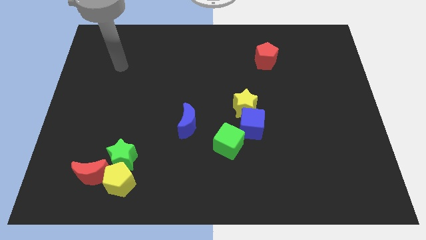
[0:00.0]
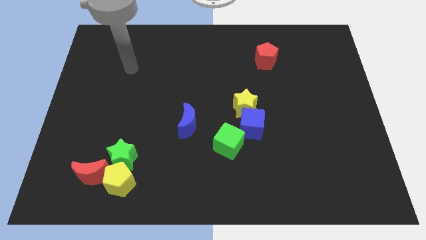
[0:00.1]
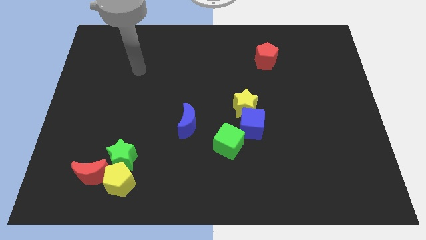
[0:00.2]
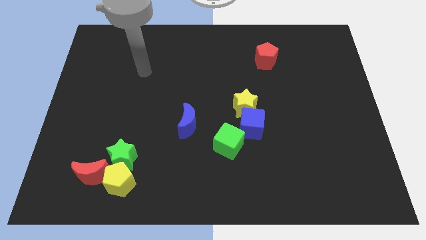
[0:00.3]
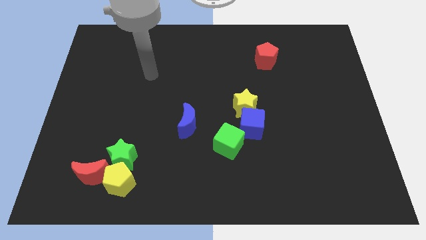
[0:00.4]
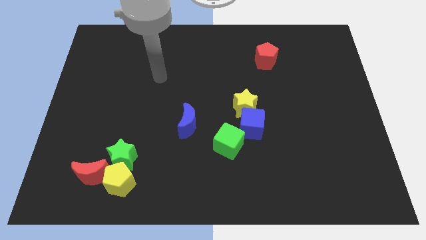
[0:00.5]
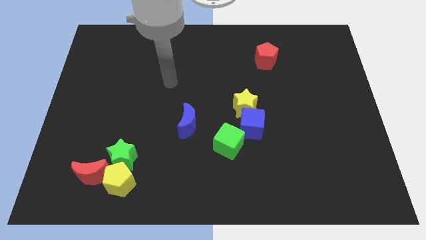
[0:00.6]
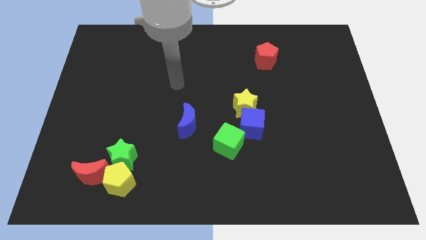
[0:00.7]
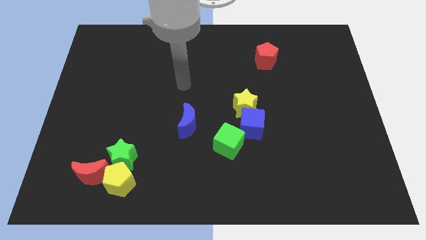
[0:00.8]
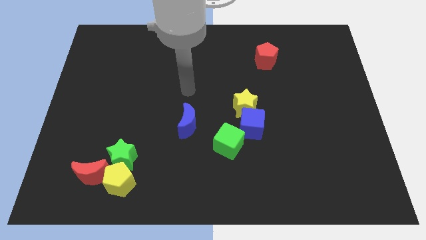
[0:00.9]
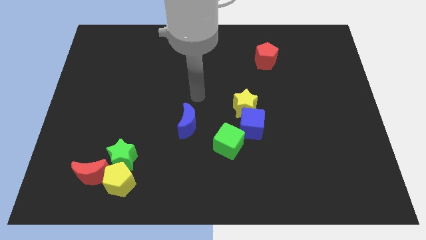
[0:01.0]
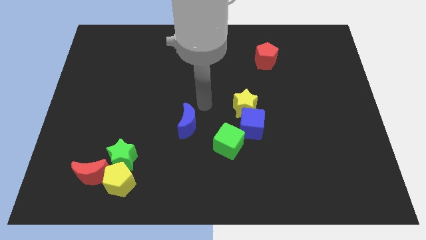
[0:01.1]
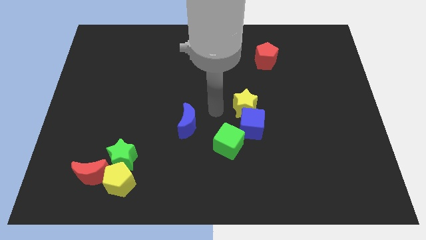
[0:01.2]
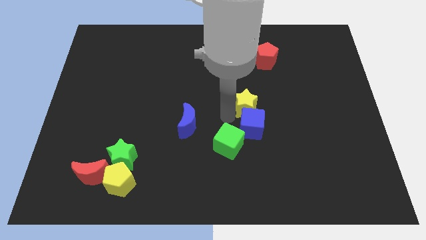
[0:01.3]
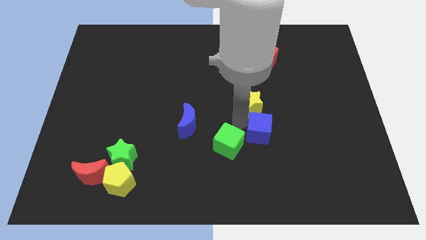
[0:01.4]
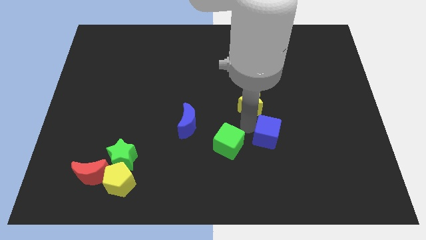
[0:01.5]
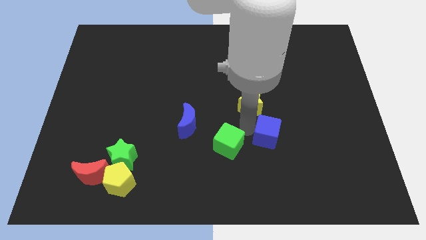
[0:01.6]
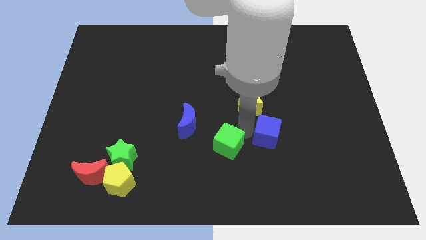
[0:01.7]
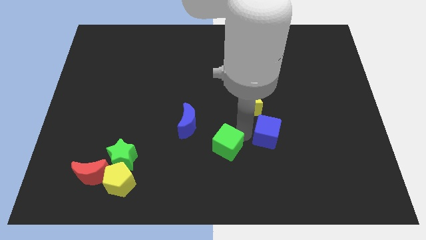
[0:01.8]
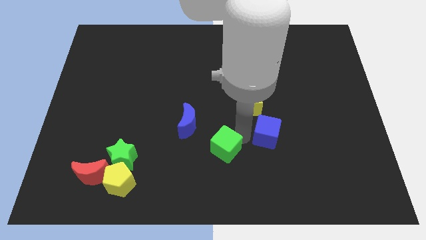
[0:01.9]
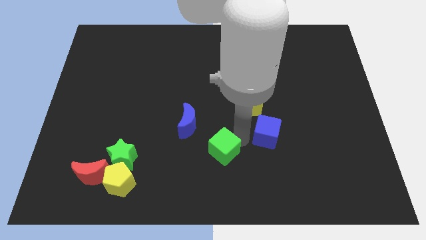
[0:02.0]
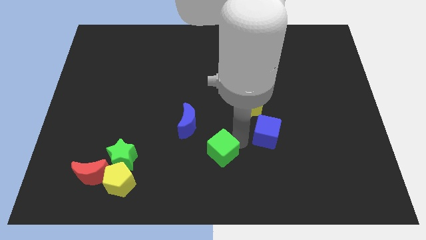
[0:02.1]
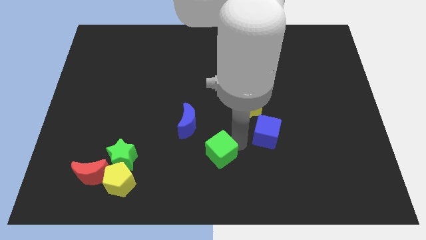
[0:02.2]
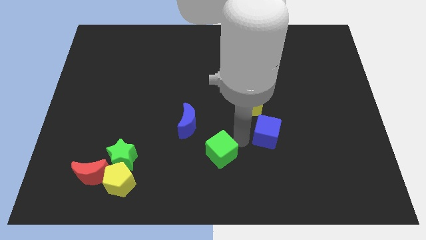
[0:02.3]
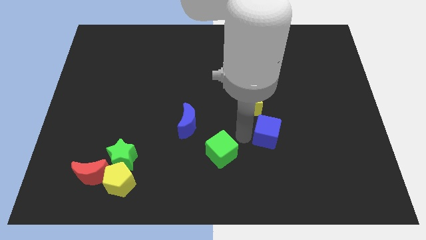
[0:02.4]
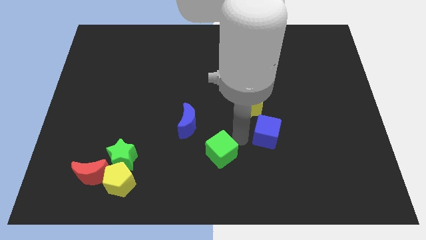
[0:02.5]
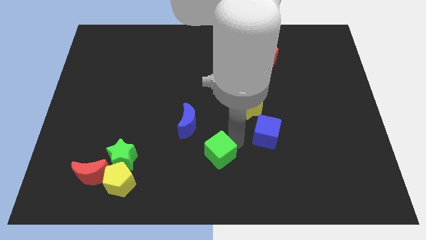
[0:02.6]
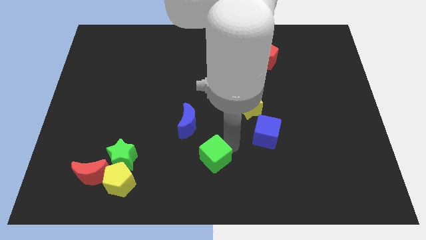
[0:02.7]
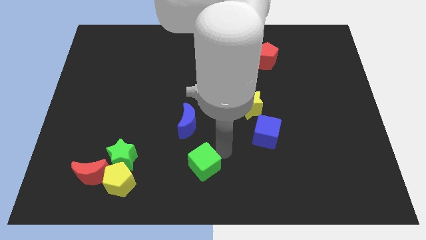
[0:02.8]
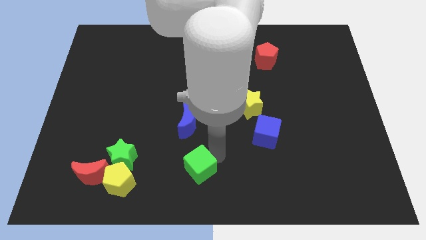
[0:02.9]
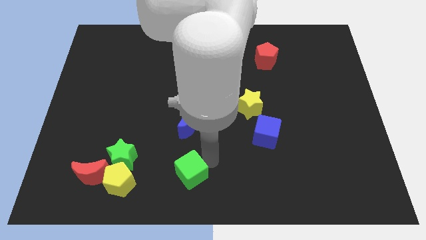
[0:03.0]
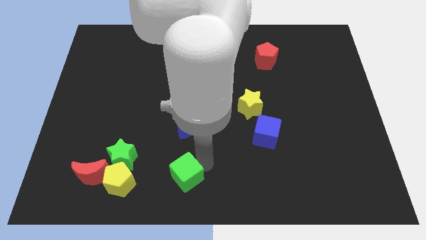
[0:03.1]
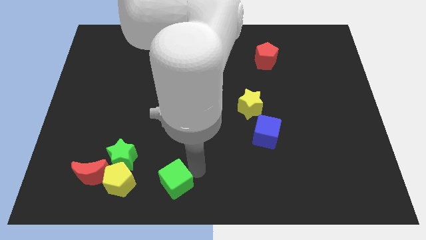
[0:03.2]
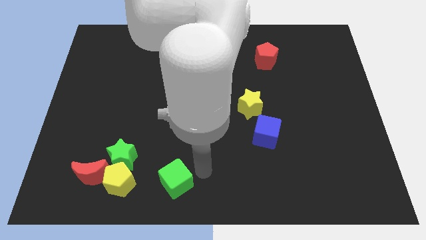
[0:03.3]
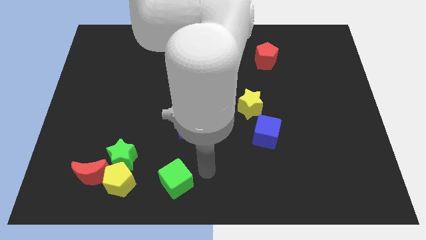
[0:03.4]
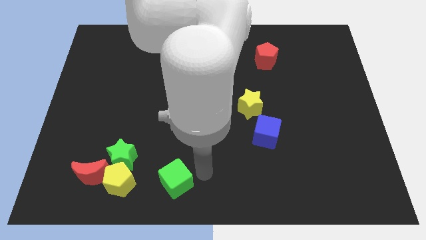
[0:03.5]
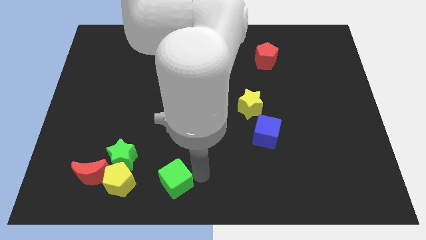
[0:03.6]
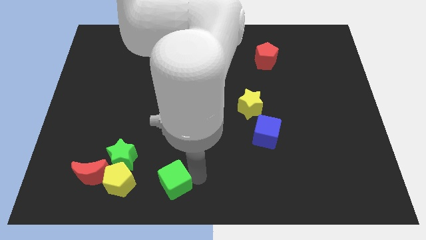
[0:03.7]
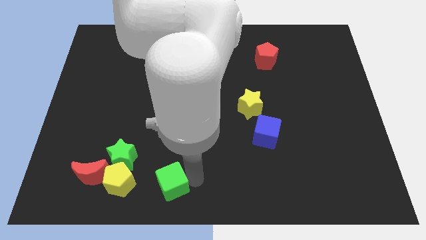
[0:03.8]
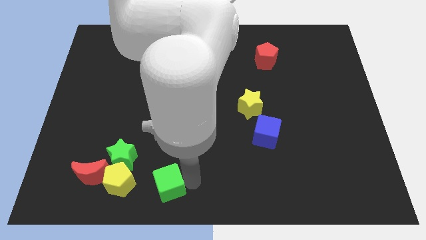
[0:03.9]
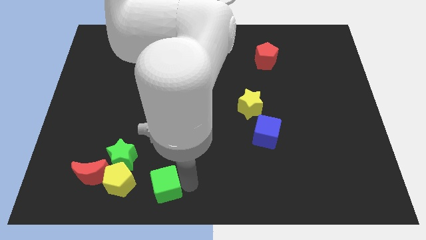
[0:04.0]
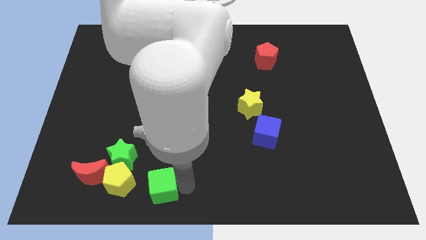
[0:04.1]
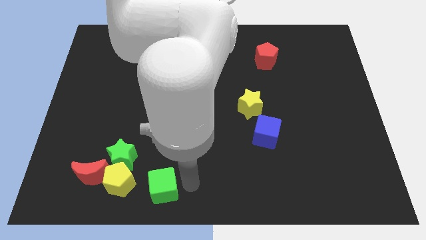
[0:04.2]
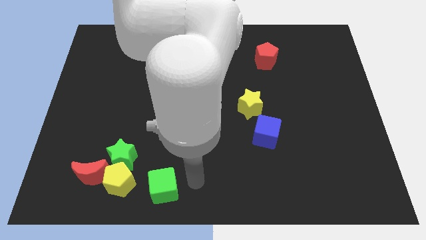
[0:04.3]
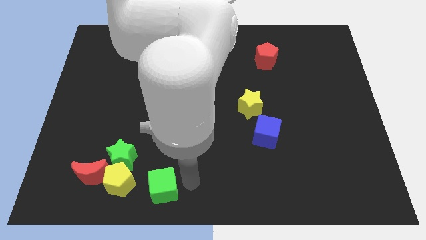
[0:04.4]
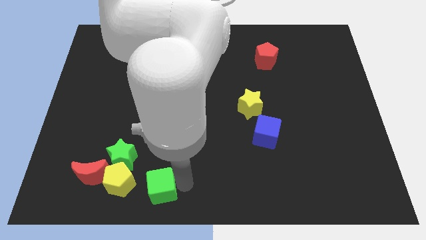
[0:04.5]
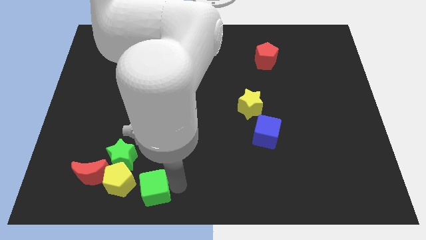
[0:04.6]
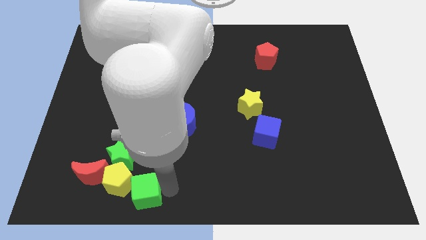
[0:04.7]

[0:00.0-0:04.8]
slide the green cube next to the yellow pentagon

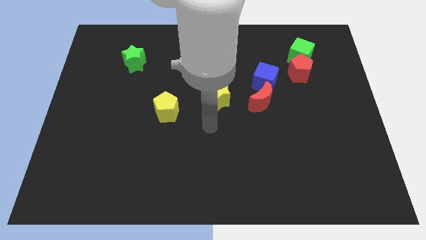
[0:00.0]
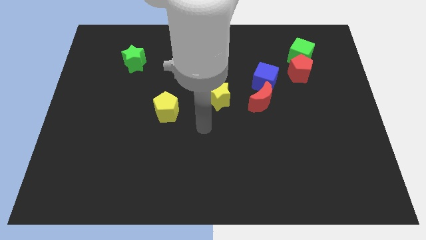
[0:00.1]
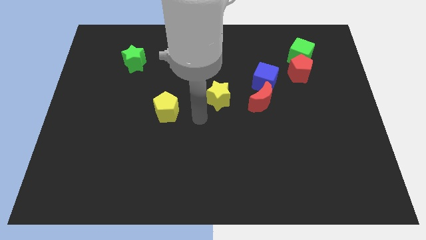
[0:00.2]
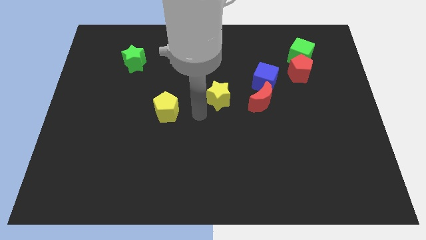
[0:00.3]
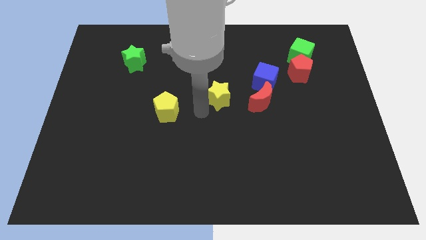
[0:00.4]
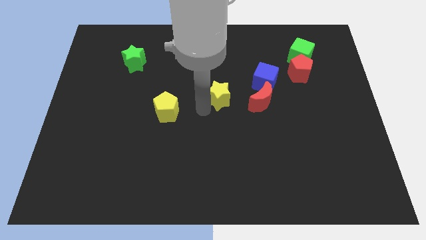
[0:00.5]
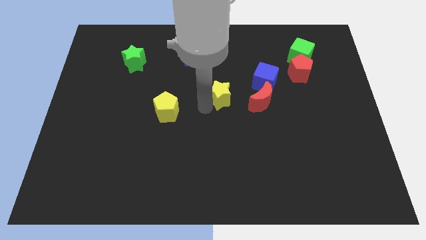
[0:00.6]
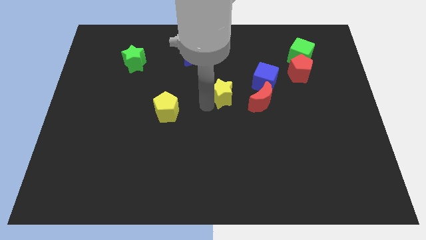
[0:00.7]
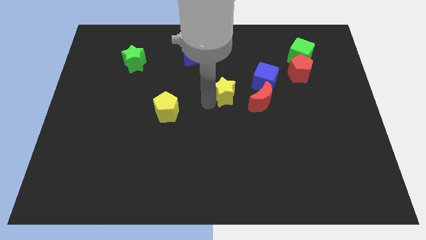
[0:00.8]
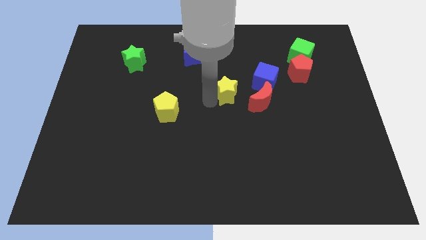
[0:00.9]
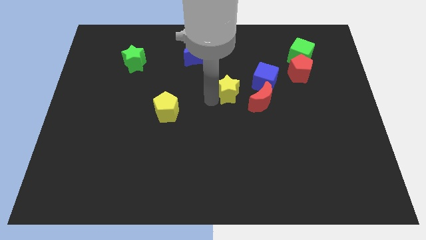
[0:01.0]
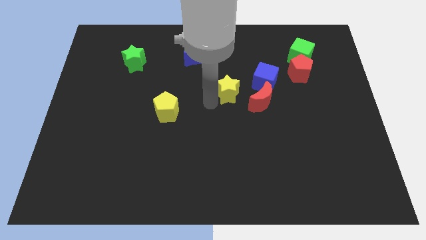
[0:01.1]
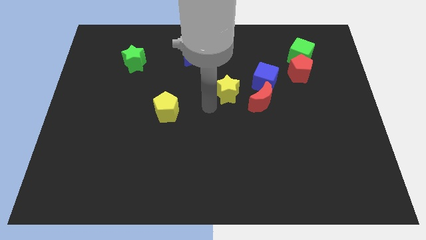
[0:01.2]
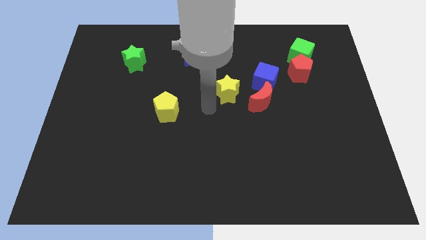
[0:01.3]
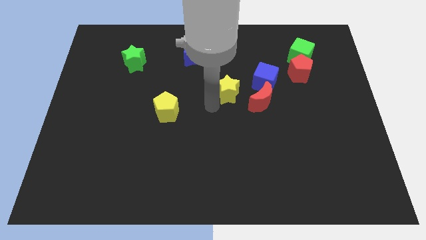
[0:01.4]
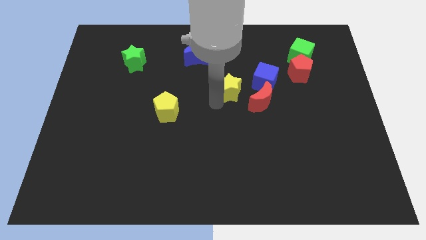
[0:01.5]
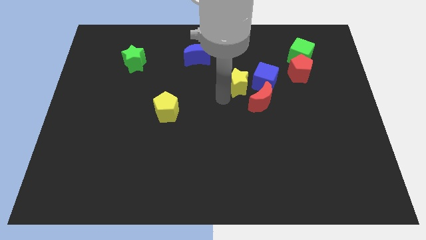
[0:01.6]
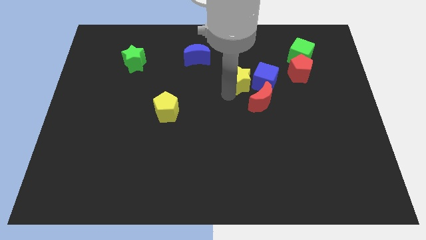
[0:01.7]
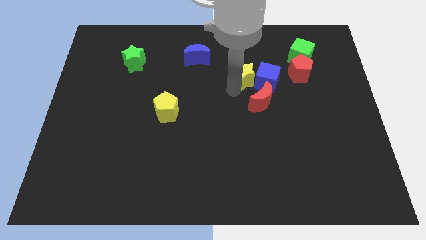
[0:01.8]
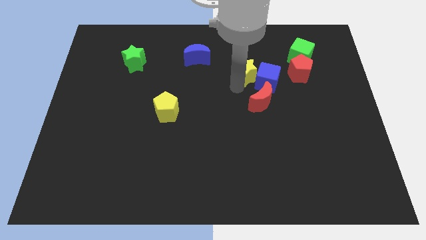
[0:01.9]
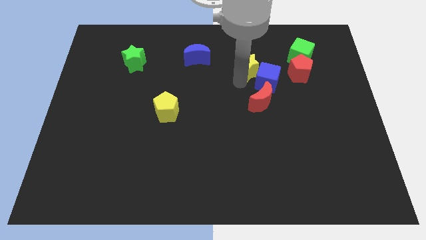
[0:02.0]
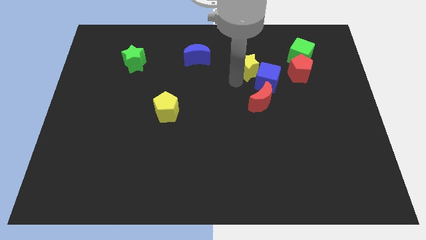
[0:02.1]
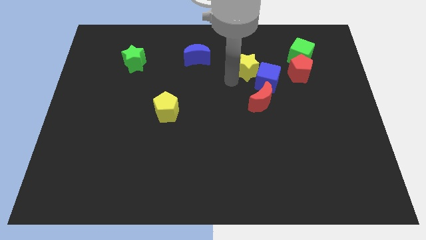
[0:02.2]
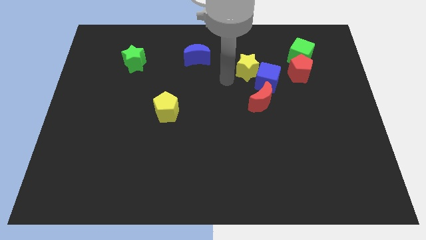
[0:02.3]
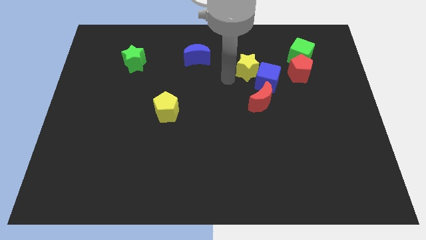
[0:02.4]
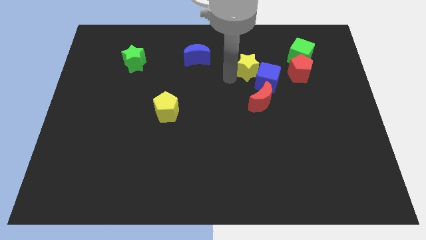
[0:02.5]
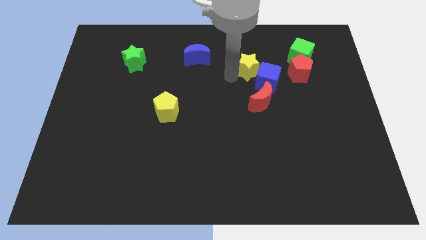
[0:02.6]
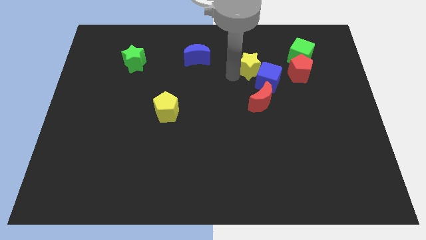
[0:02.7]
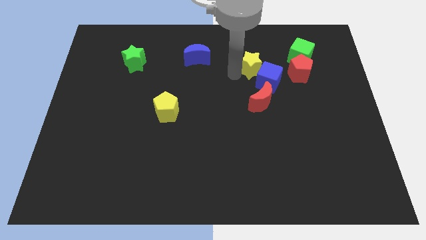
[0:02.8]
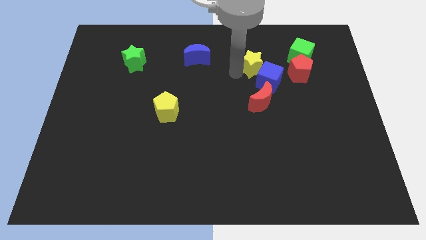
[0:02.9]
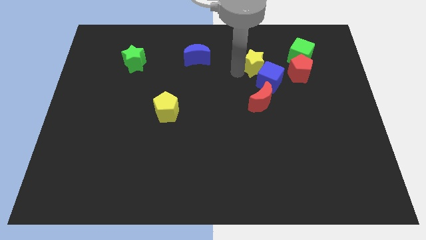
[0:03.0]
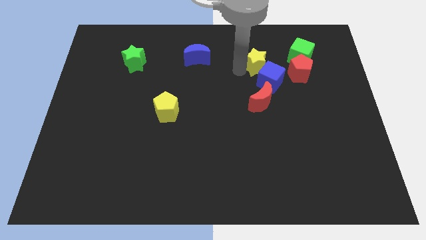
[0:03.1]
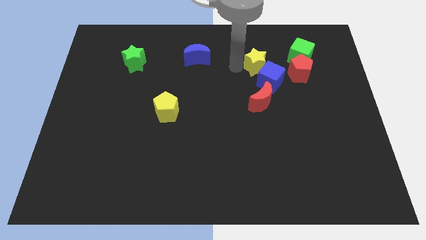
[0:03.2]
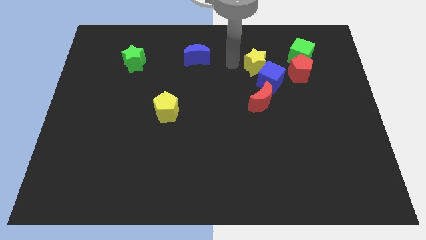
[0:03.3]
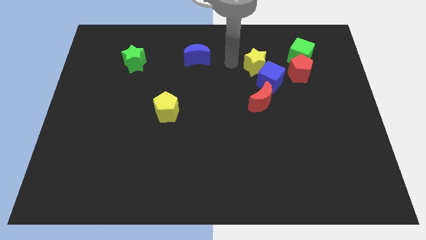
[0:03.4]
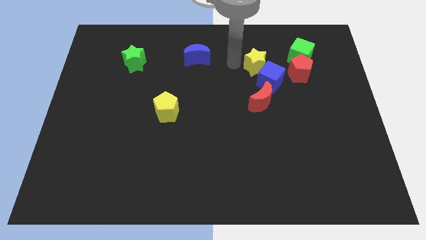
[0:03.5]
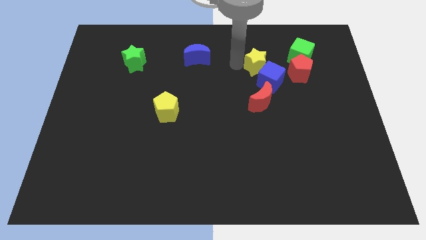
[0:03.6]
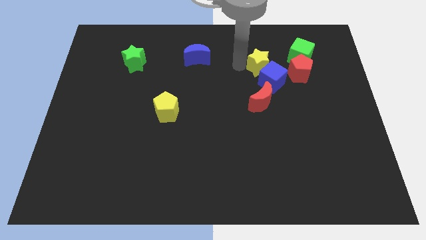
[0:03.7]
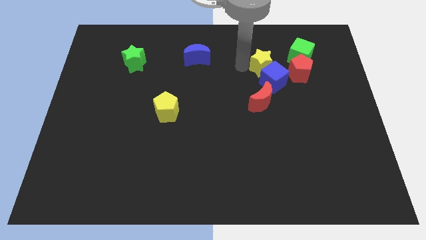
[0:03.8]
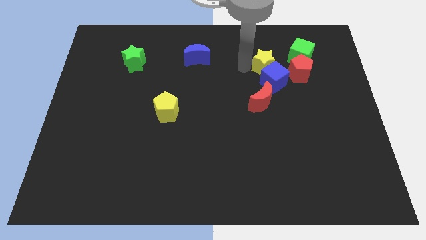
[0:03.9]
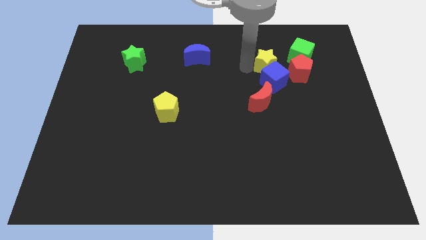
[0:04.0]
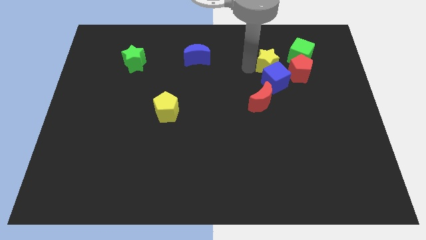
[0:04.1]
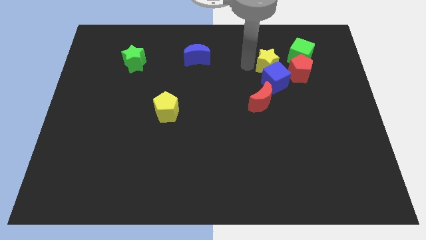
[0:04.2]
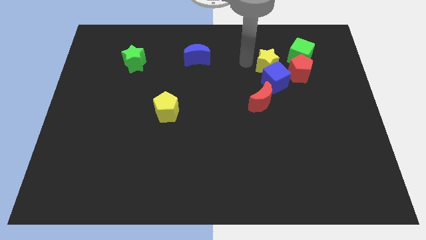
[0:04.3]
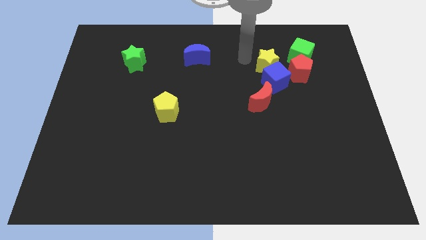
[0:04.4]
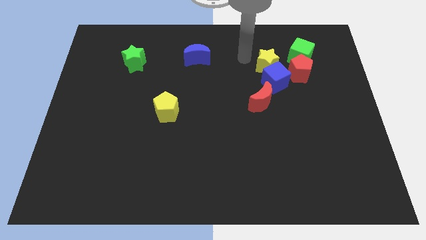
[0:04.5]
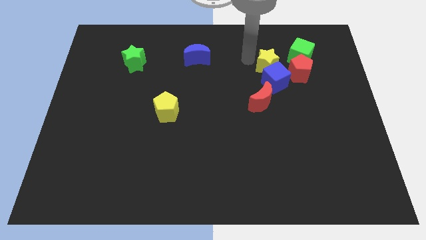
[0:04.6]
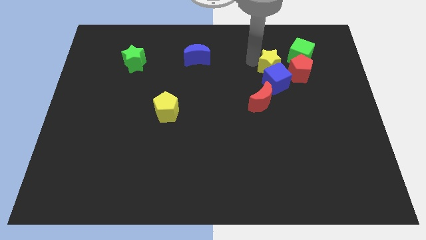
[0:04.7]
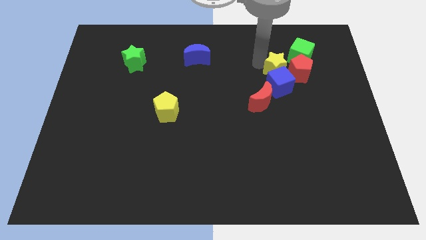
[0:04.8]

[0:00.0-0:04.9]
slide the yellow star towards the red pentagon
